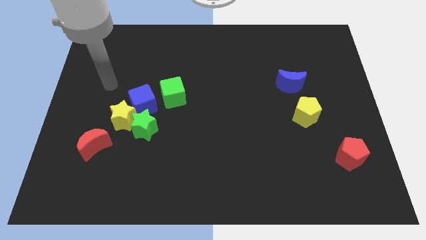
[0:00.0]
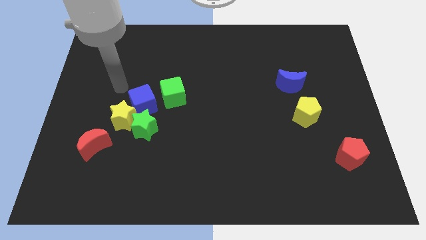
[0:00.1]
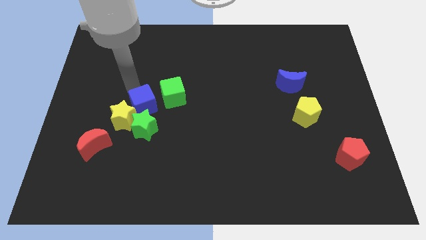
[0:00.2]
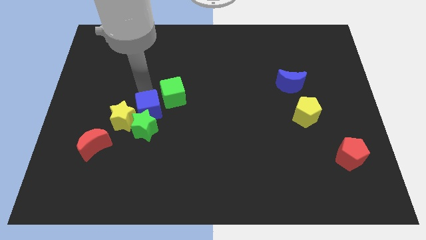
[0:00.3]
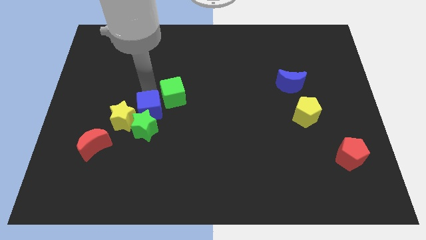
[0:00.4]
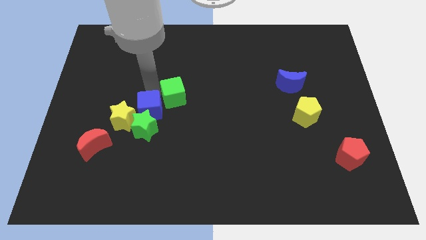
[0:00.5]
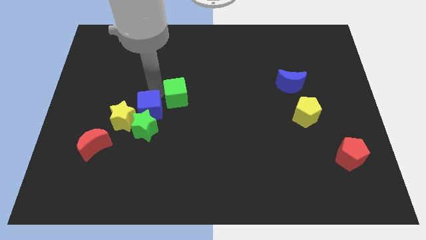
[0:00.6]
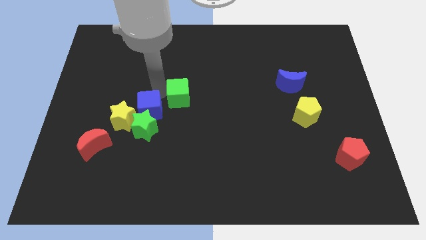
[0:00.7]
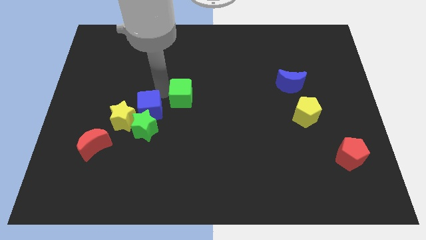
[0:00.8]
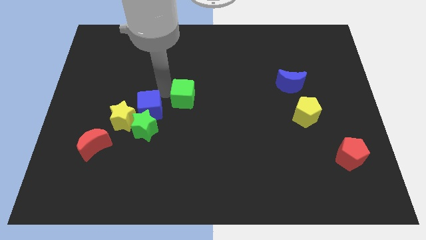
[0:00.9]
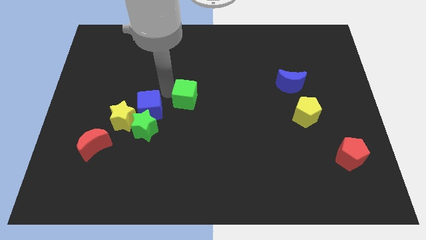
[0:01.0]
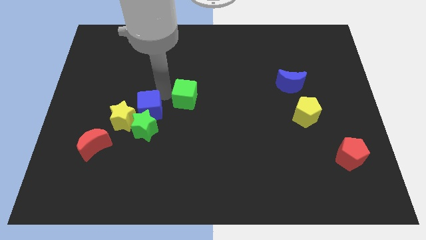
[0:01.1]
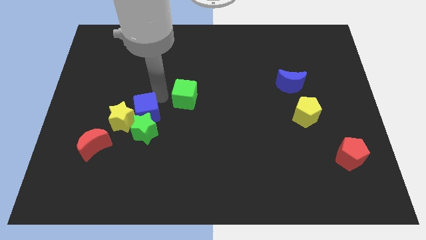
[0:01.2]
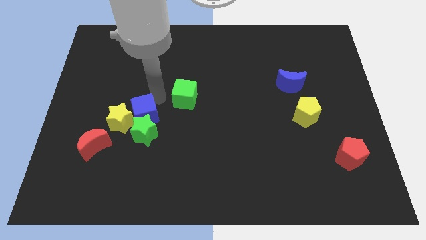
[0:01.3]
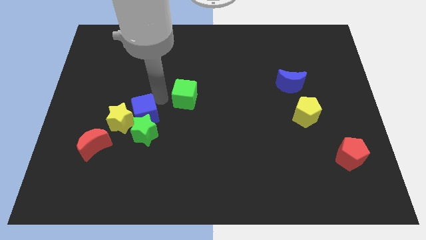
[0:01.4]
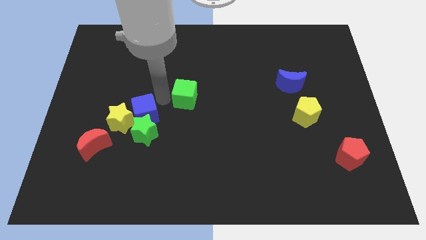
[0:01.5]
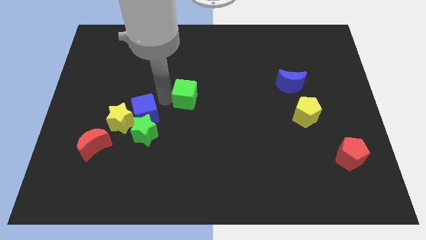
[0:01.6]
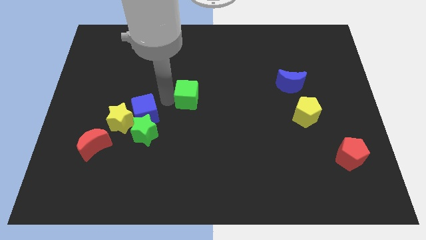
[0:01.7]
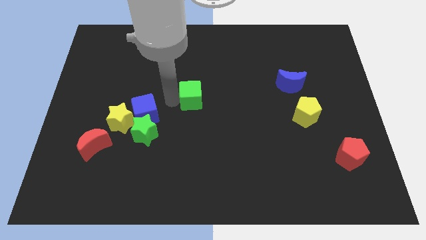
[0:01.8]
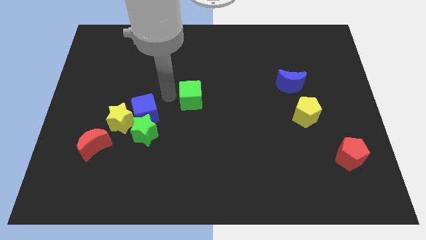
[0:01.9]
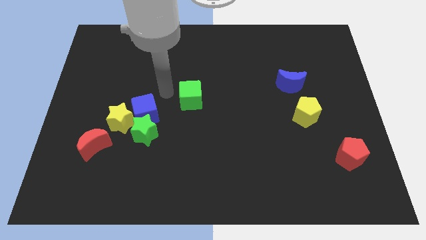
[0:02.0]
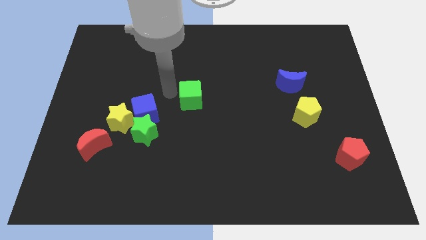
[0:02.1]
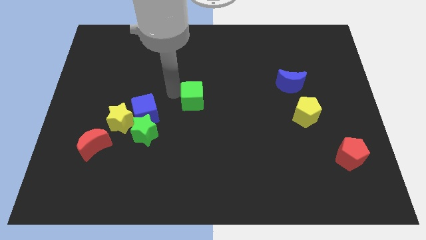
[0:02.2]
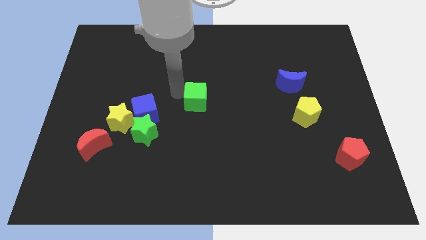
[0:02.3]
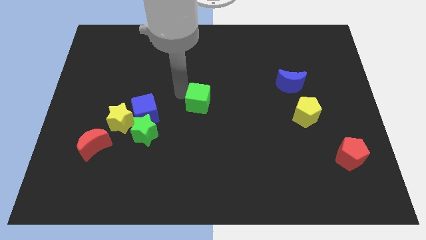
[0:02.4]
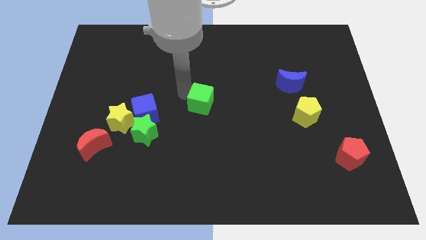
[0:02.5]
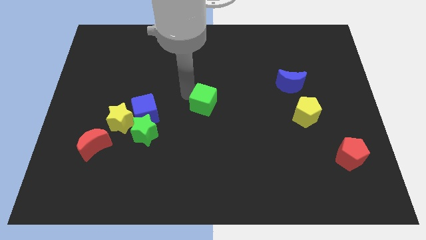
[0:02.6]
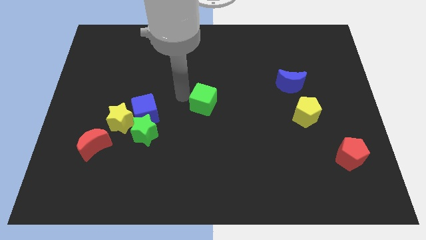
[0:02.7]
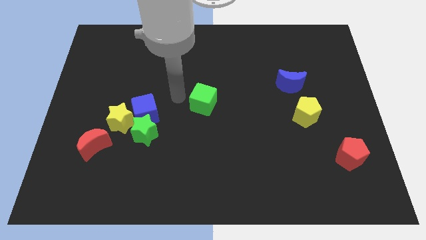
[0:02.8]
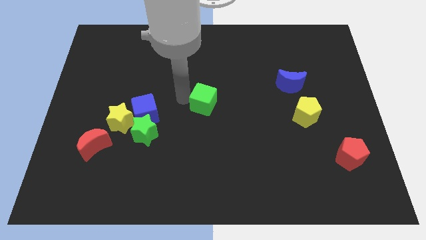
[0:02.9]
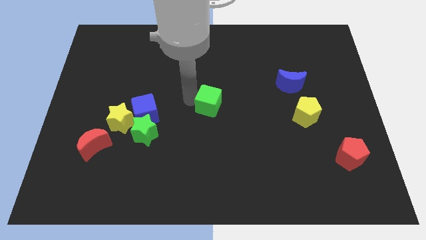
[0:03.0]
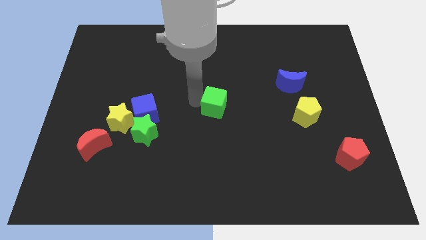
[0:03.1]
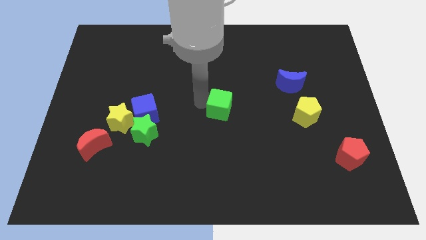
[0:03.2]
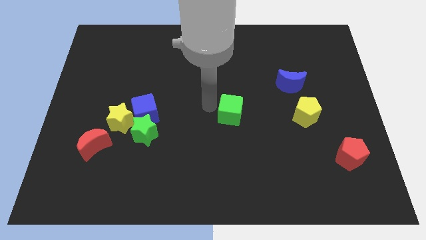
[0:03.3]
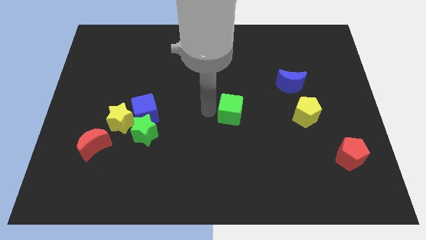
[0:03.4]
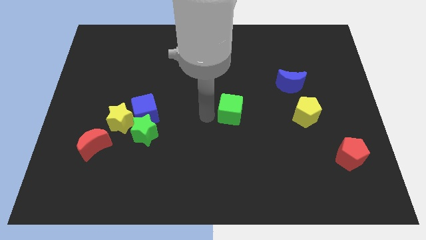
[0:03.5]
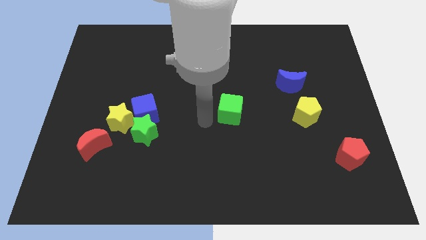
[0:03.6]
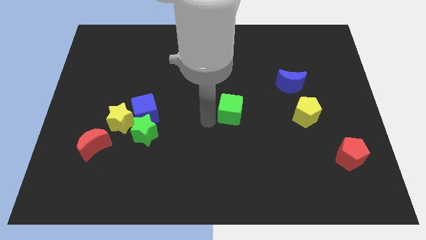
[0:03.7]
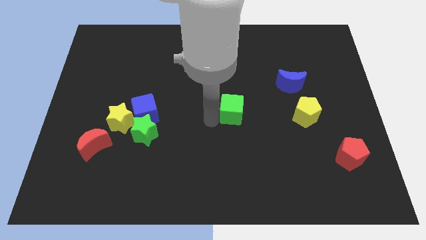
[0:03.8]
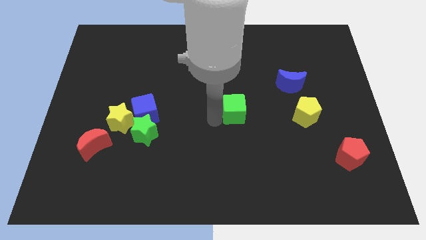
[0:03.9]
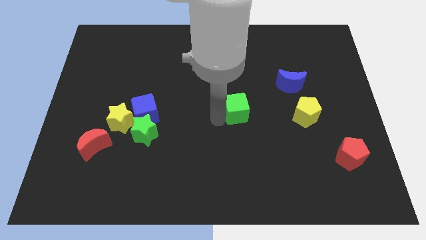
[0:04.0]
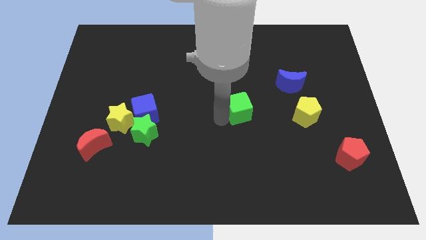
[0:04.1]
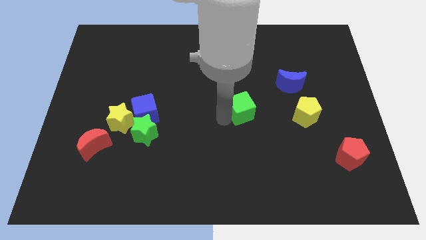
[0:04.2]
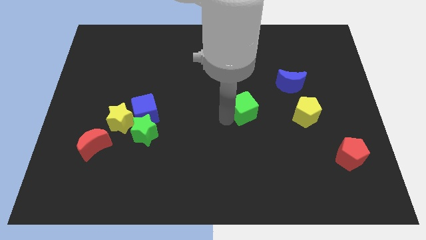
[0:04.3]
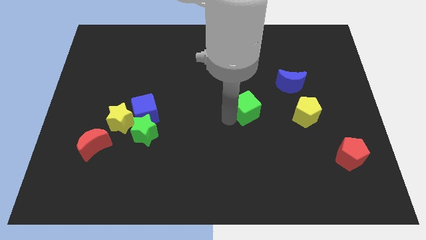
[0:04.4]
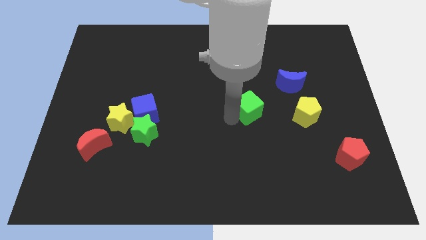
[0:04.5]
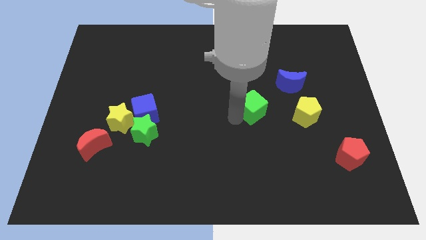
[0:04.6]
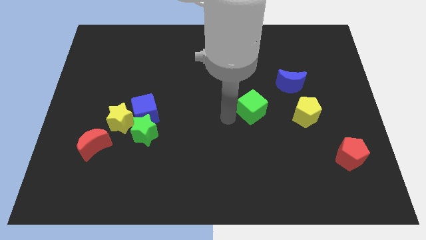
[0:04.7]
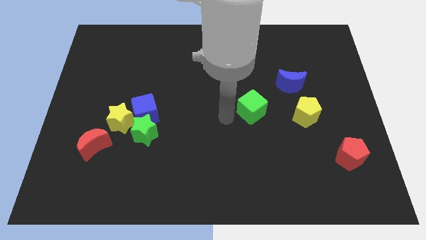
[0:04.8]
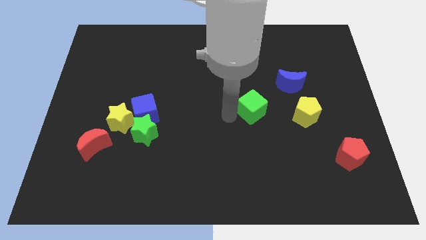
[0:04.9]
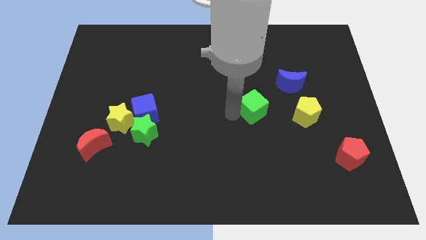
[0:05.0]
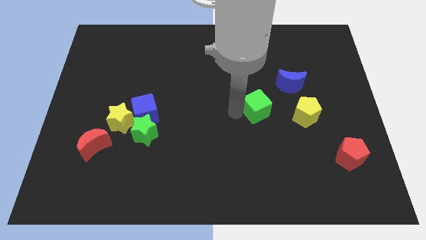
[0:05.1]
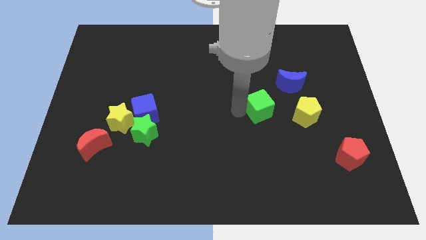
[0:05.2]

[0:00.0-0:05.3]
push the green cube right

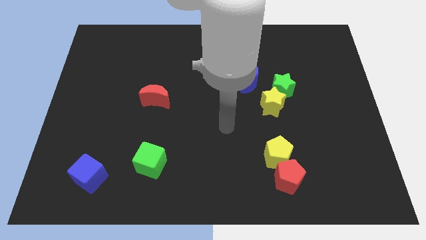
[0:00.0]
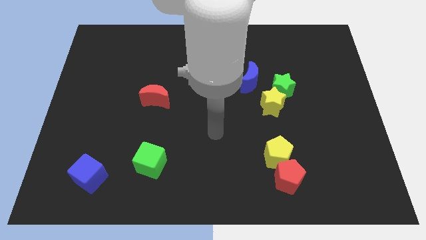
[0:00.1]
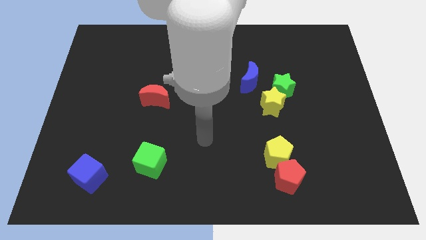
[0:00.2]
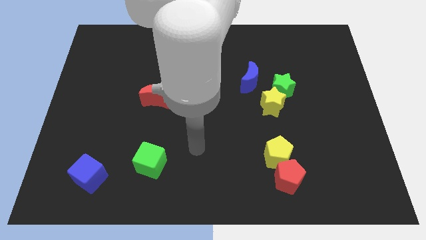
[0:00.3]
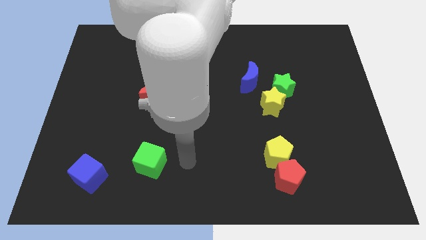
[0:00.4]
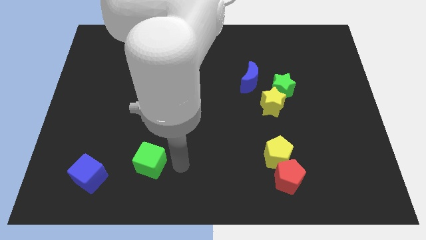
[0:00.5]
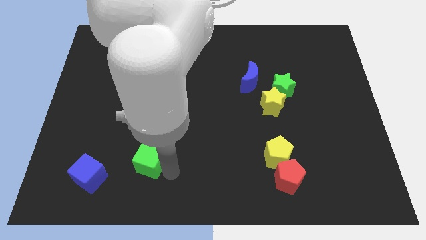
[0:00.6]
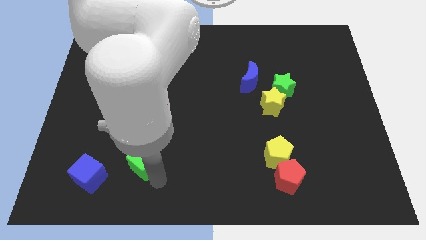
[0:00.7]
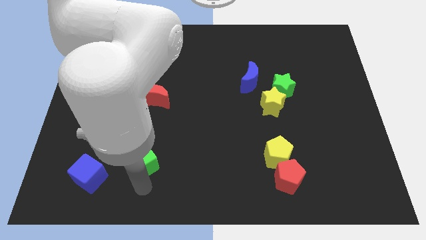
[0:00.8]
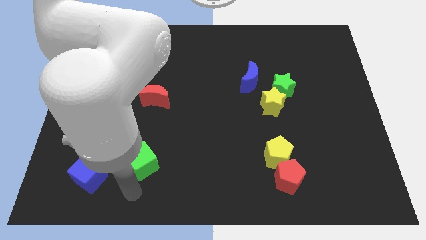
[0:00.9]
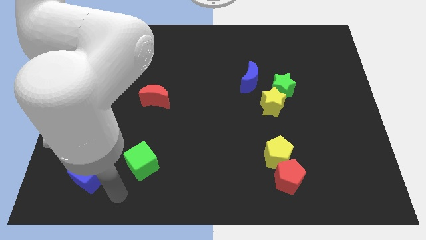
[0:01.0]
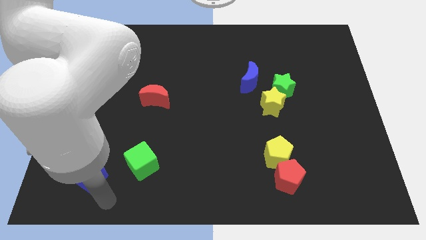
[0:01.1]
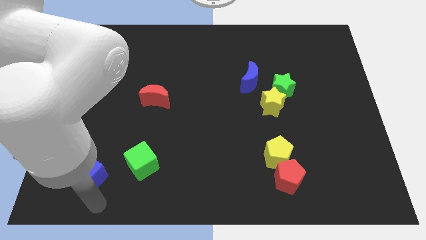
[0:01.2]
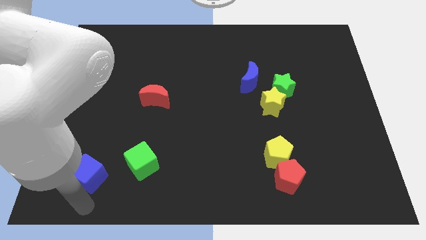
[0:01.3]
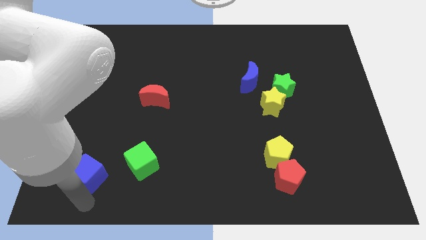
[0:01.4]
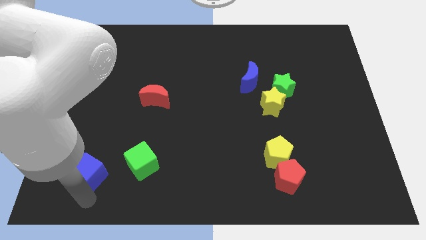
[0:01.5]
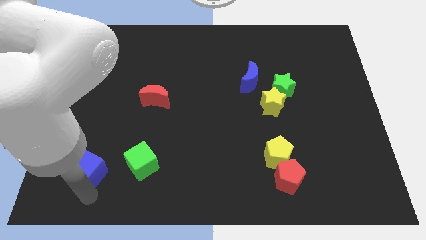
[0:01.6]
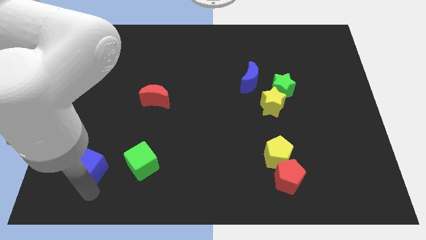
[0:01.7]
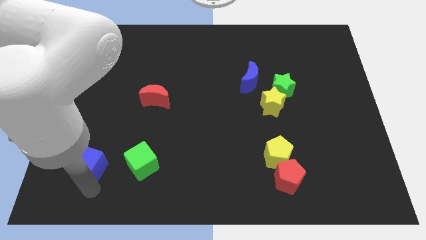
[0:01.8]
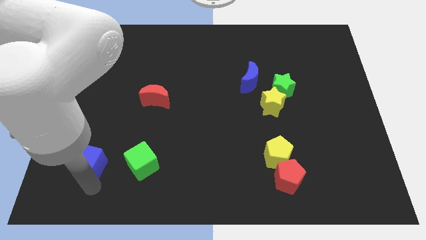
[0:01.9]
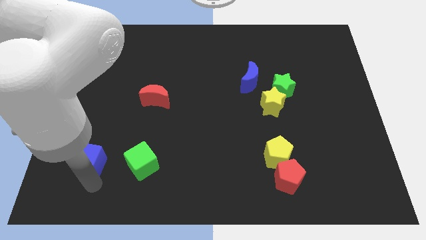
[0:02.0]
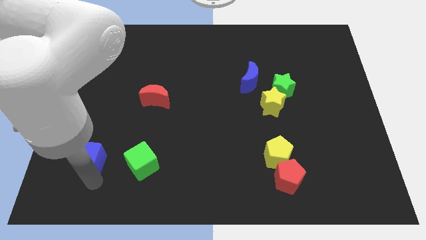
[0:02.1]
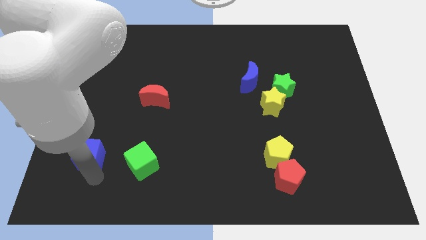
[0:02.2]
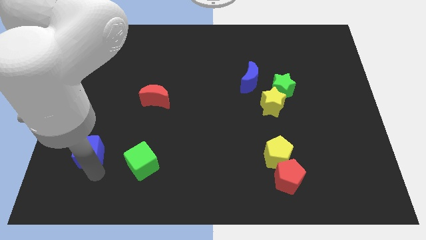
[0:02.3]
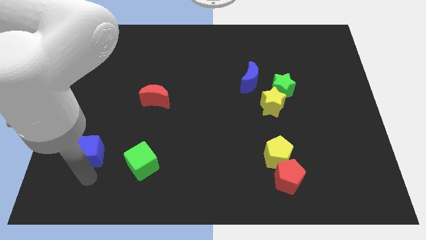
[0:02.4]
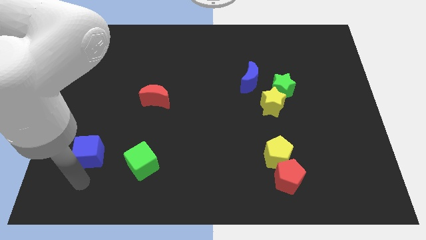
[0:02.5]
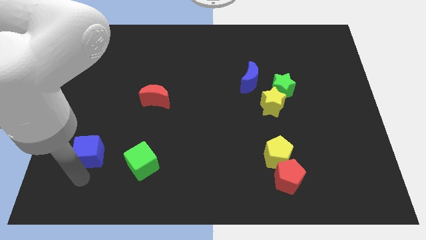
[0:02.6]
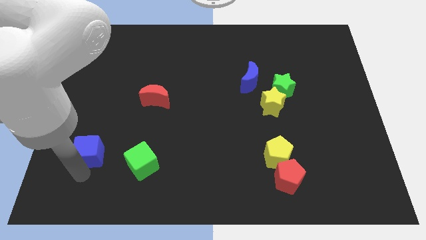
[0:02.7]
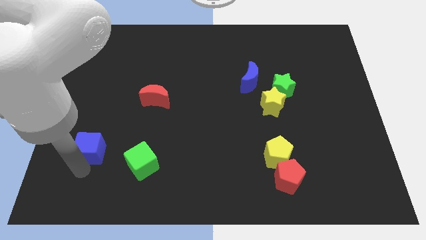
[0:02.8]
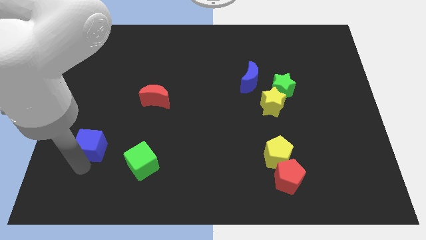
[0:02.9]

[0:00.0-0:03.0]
push the blue cube up somewhat
